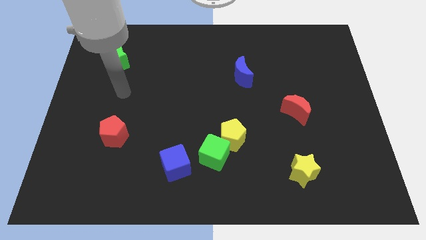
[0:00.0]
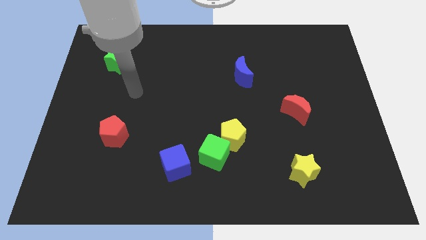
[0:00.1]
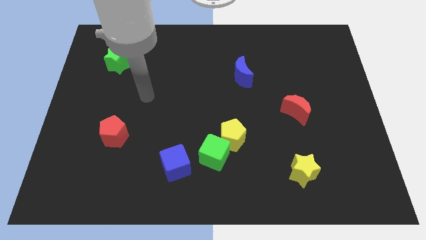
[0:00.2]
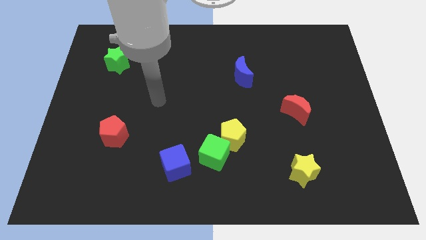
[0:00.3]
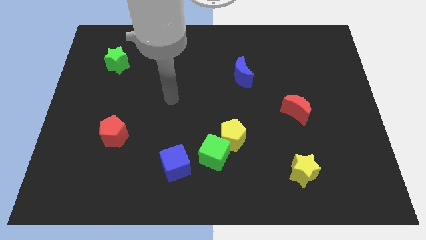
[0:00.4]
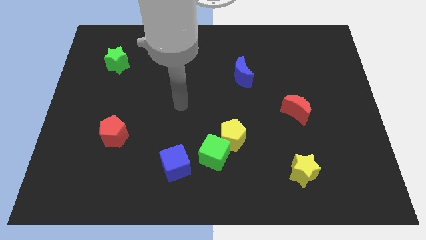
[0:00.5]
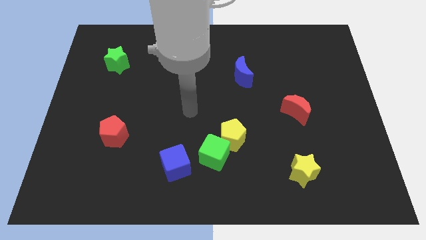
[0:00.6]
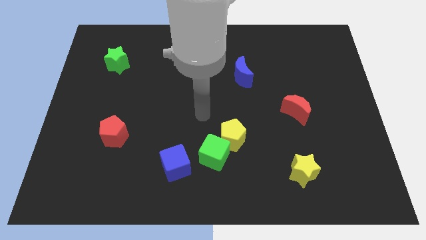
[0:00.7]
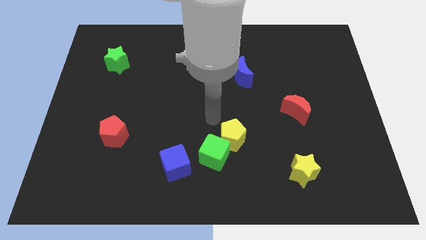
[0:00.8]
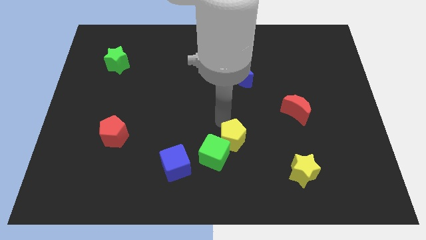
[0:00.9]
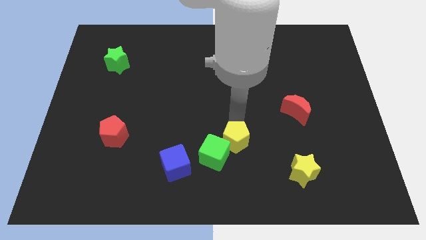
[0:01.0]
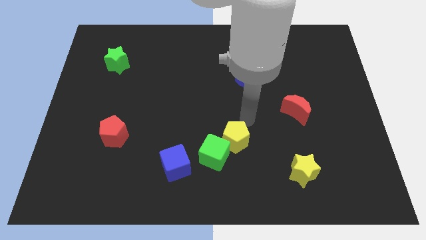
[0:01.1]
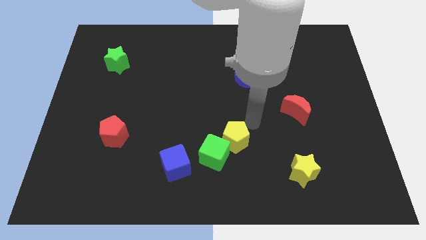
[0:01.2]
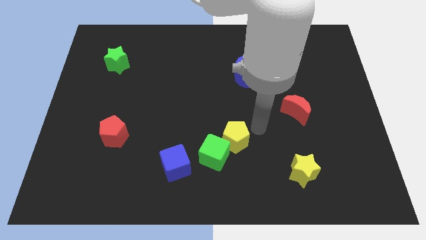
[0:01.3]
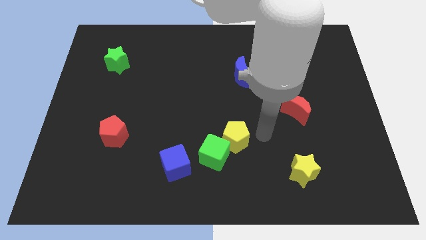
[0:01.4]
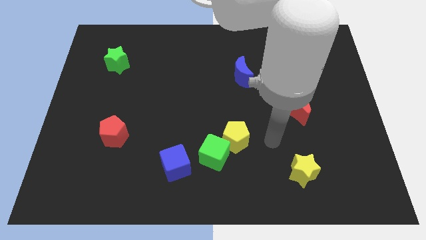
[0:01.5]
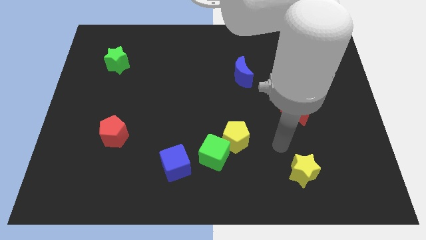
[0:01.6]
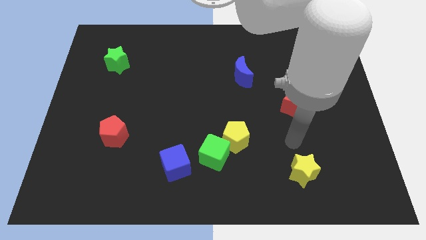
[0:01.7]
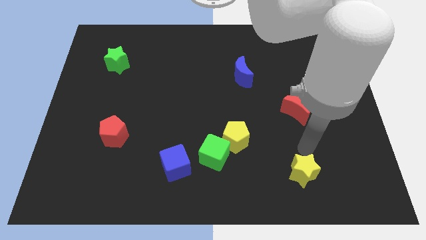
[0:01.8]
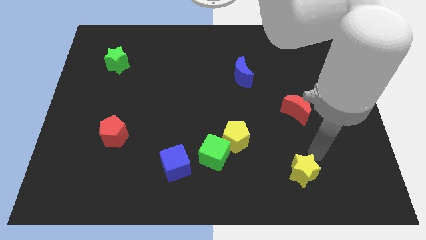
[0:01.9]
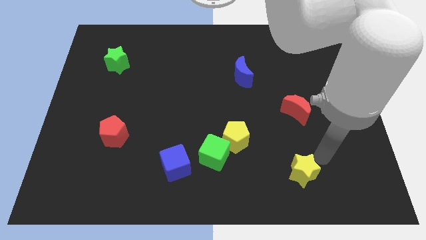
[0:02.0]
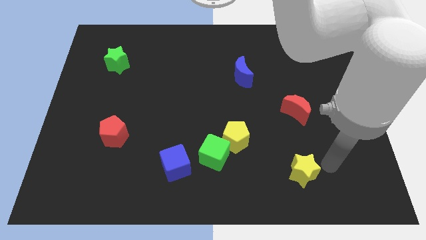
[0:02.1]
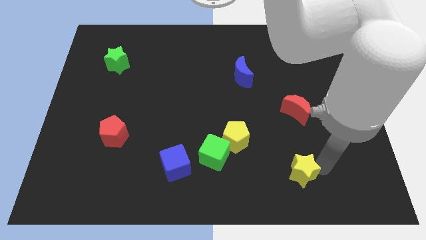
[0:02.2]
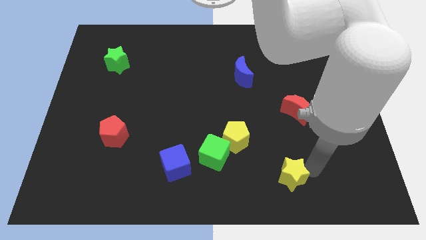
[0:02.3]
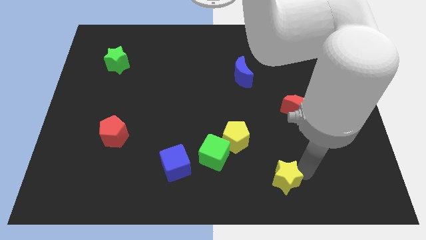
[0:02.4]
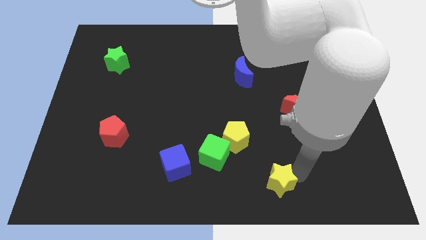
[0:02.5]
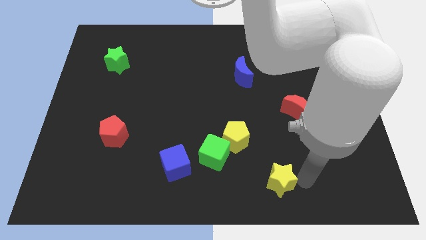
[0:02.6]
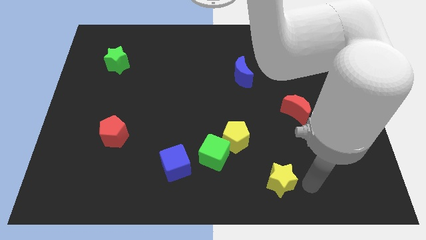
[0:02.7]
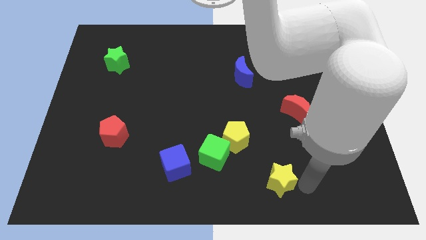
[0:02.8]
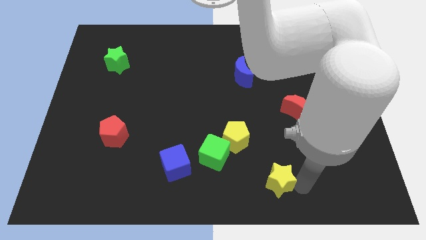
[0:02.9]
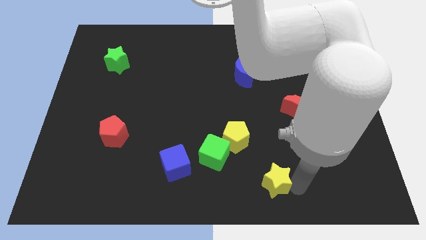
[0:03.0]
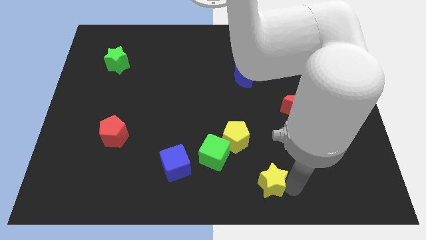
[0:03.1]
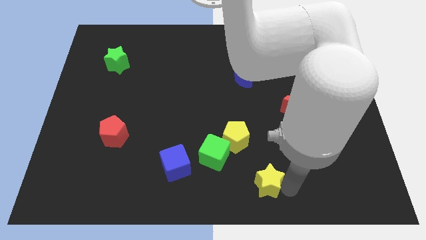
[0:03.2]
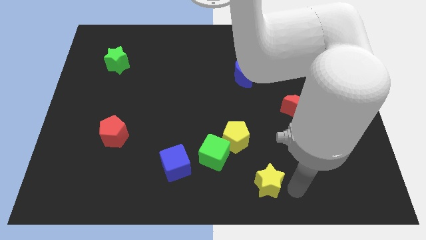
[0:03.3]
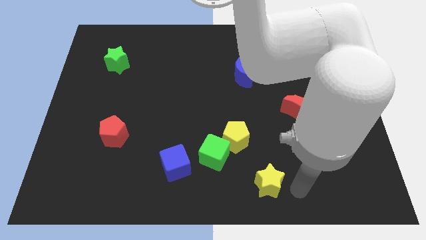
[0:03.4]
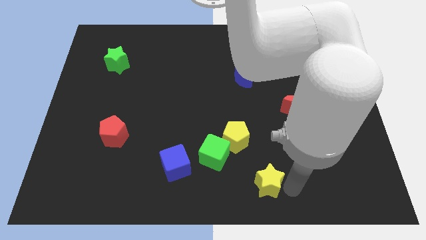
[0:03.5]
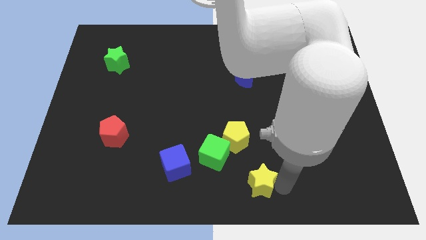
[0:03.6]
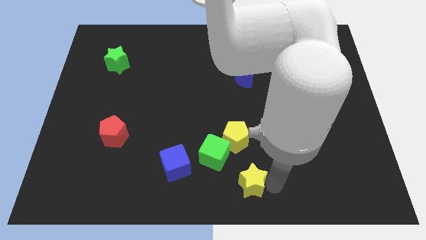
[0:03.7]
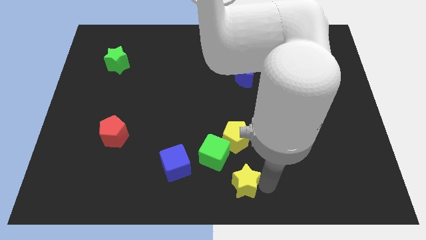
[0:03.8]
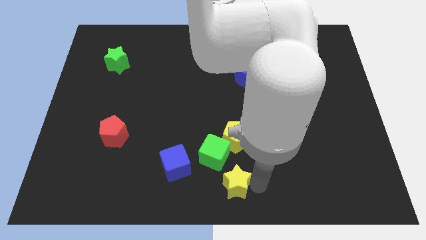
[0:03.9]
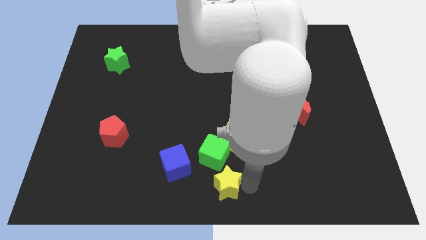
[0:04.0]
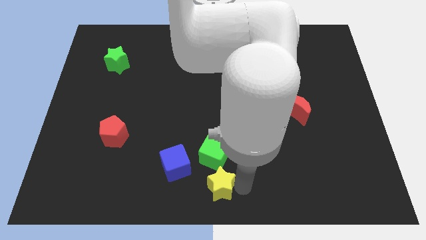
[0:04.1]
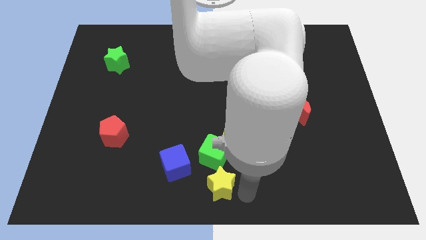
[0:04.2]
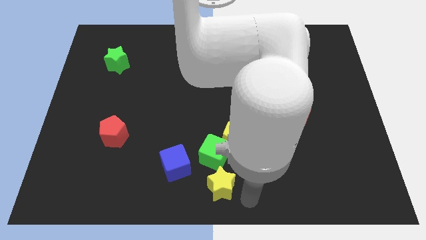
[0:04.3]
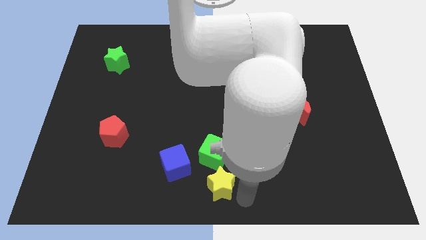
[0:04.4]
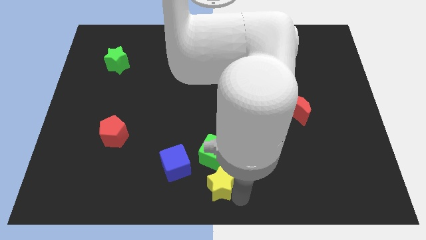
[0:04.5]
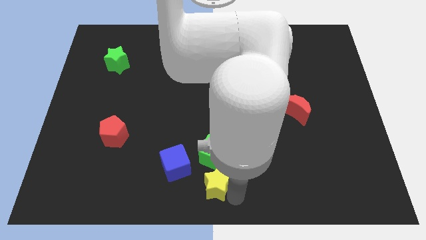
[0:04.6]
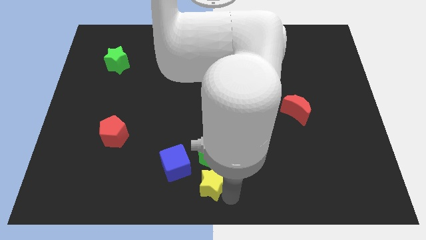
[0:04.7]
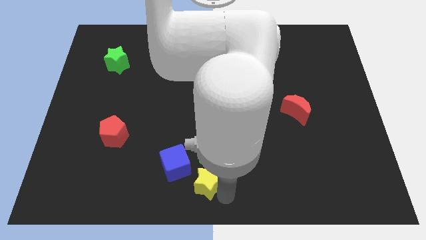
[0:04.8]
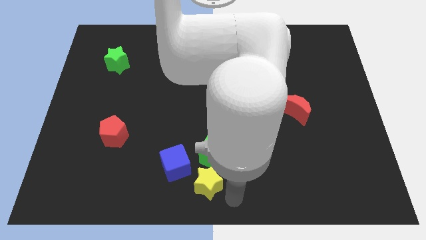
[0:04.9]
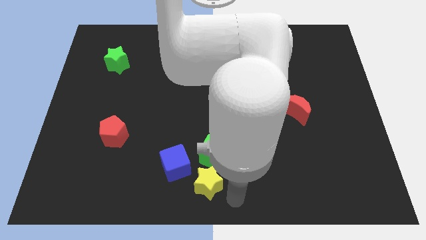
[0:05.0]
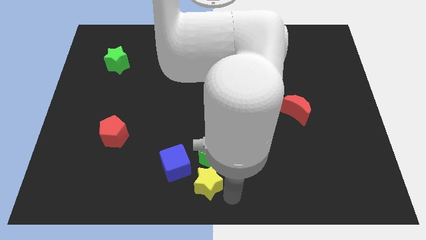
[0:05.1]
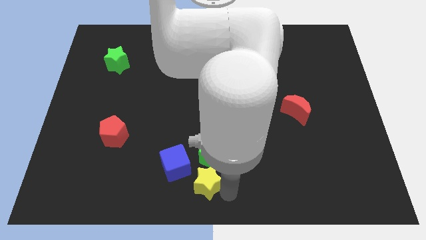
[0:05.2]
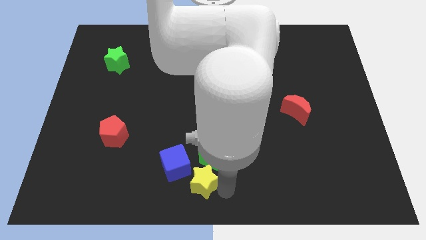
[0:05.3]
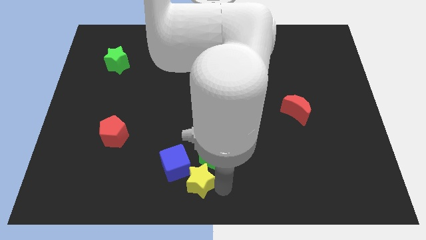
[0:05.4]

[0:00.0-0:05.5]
move the yellow star towards the blue cube

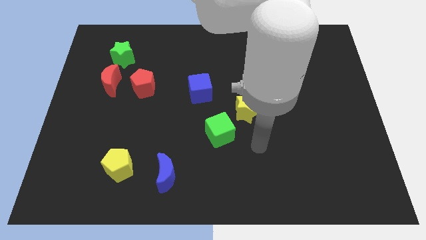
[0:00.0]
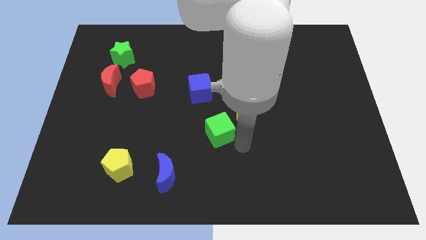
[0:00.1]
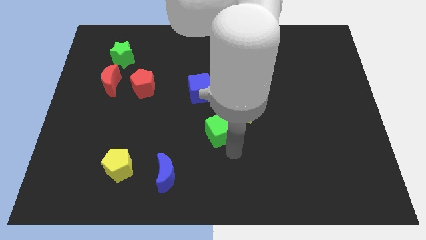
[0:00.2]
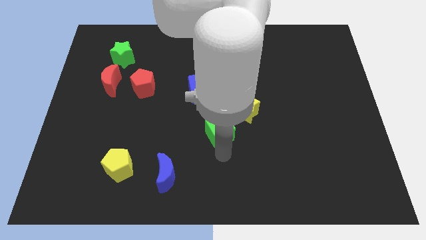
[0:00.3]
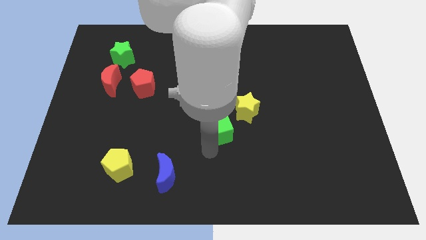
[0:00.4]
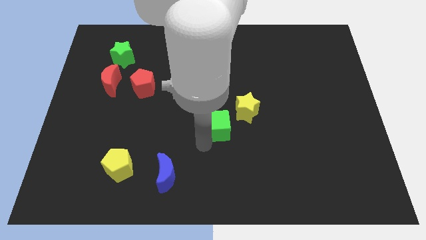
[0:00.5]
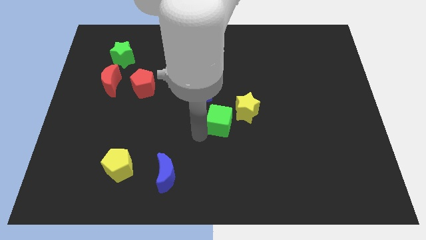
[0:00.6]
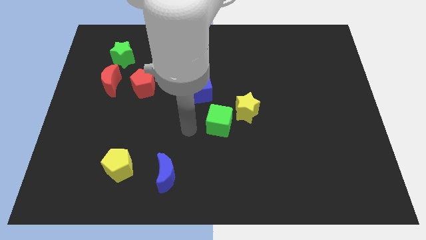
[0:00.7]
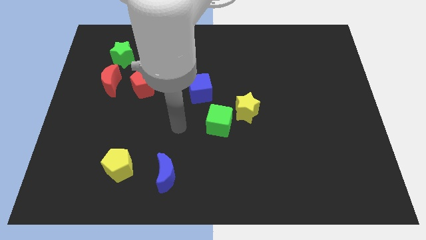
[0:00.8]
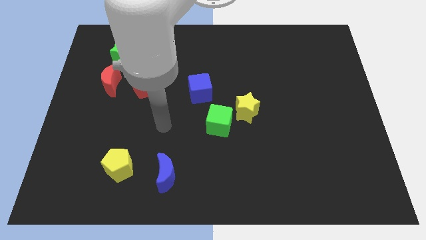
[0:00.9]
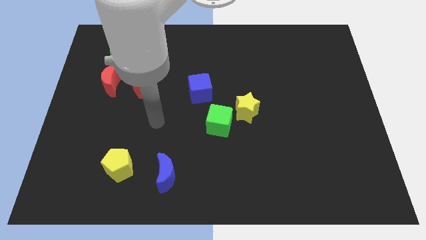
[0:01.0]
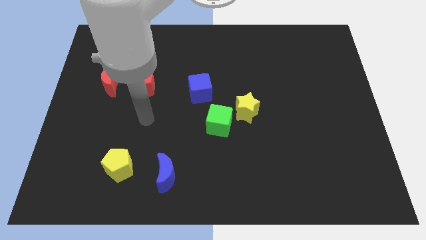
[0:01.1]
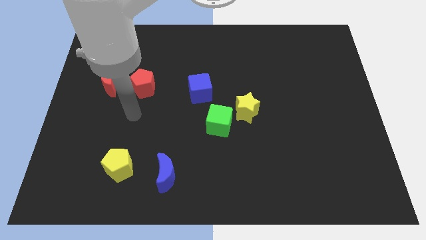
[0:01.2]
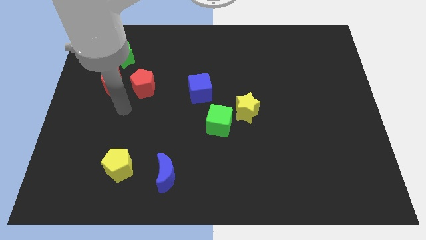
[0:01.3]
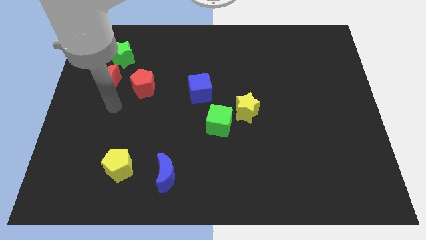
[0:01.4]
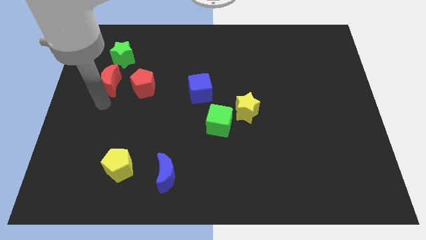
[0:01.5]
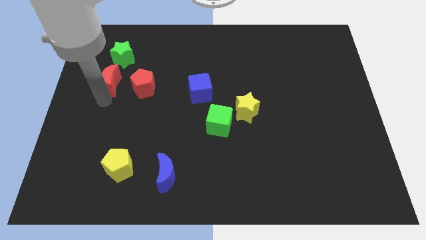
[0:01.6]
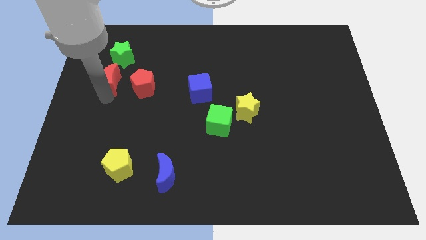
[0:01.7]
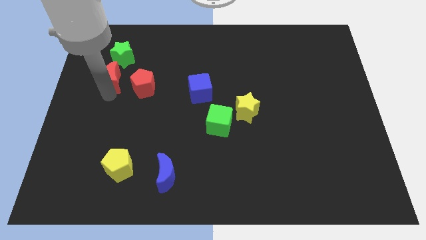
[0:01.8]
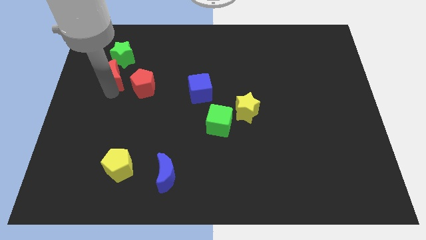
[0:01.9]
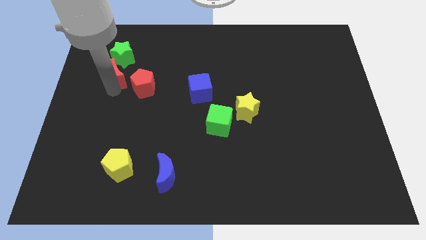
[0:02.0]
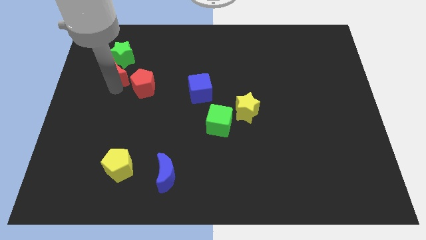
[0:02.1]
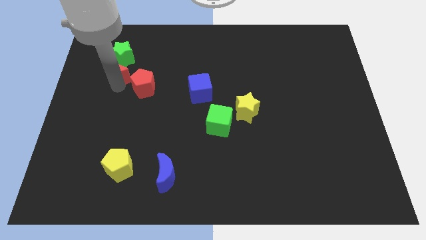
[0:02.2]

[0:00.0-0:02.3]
slide the red moon next to the green star
